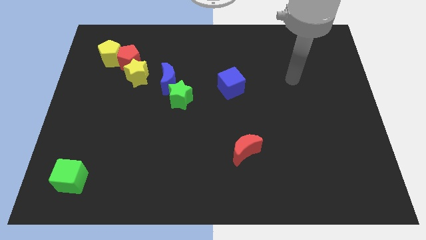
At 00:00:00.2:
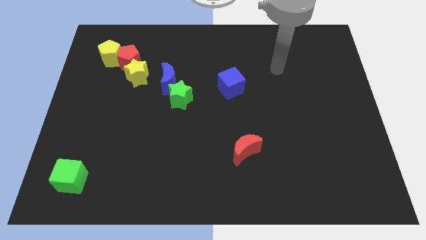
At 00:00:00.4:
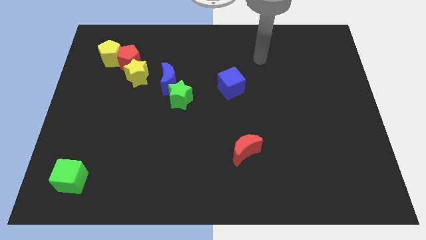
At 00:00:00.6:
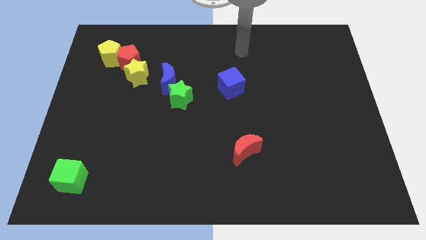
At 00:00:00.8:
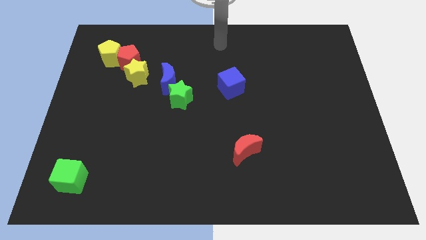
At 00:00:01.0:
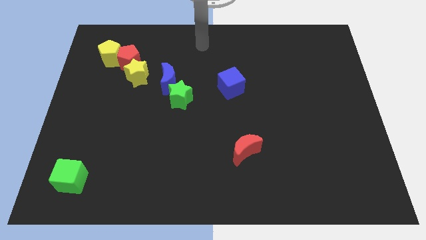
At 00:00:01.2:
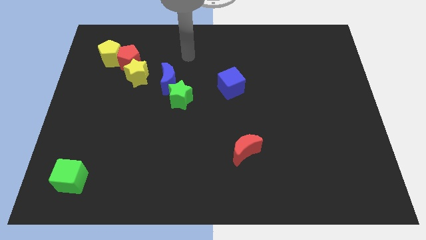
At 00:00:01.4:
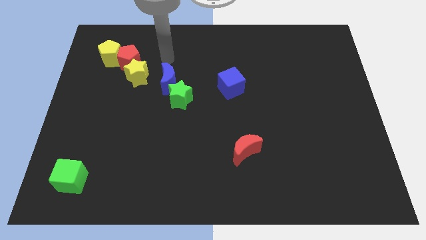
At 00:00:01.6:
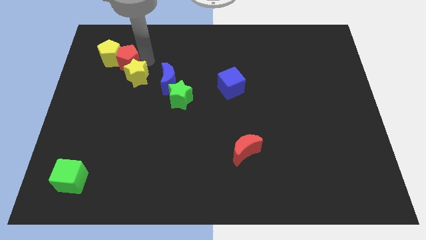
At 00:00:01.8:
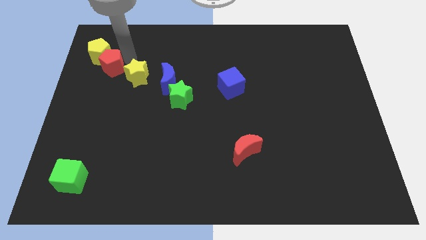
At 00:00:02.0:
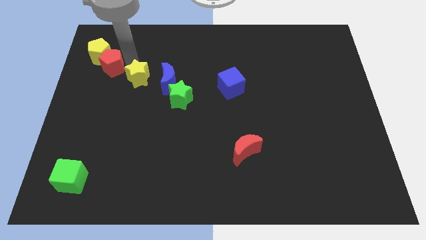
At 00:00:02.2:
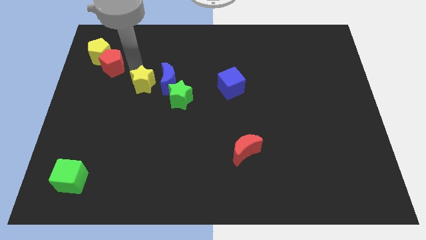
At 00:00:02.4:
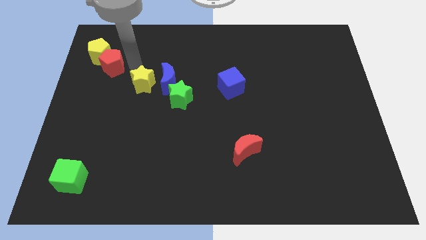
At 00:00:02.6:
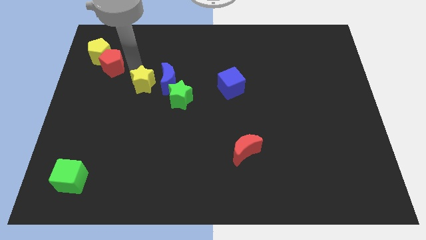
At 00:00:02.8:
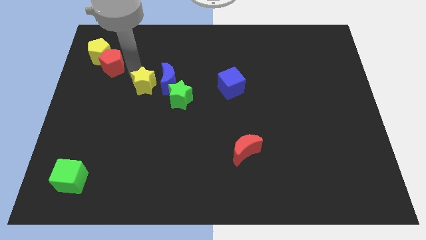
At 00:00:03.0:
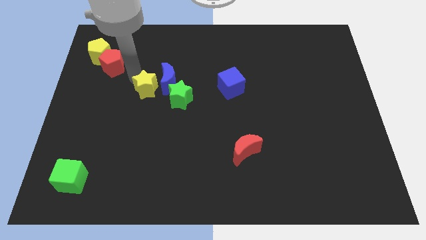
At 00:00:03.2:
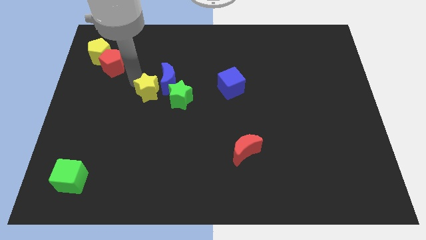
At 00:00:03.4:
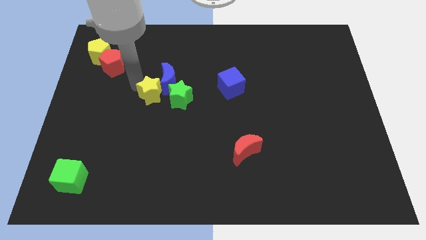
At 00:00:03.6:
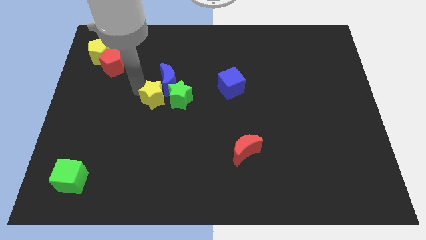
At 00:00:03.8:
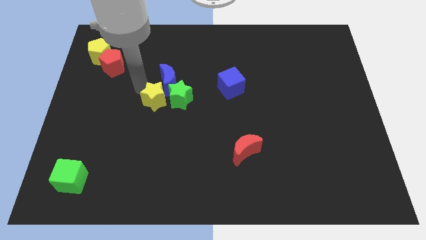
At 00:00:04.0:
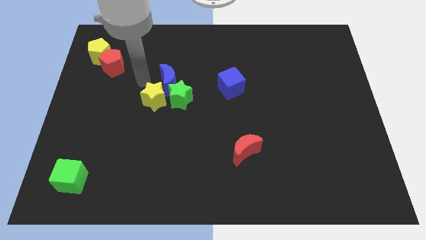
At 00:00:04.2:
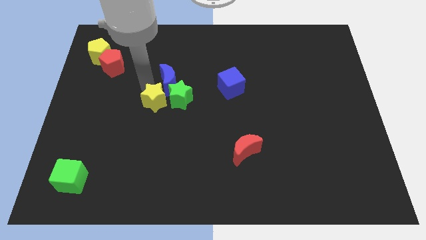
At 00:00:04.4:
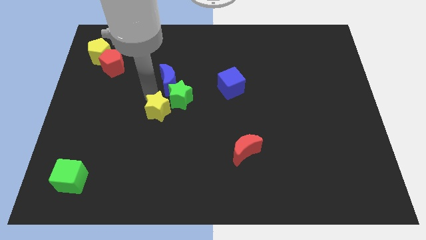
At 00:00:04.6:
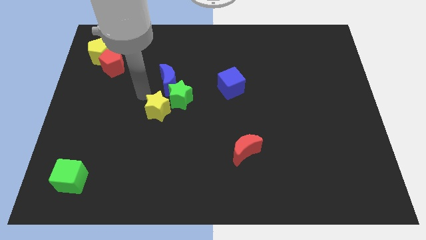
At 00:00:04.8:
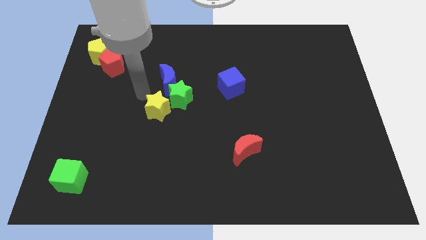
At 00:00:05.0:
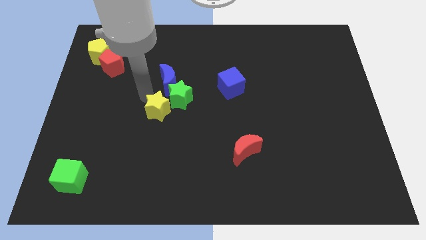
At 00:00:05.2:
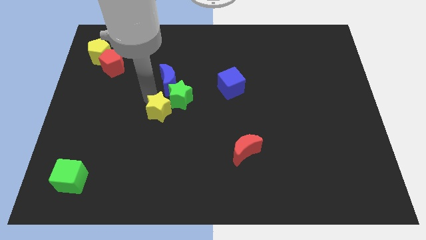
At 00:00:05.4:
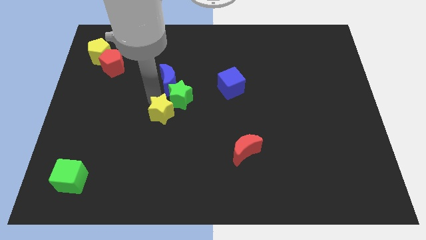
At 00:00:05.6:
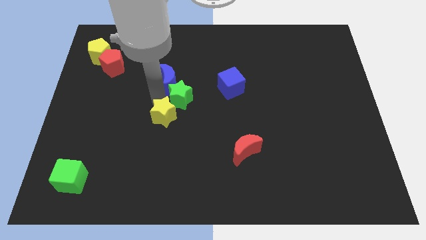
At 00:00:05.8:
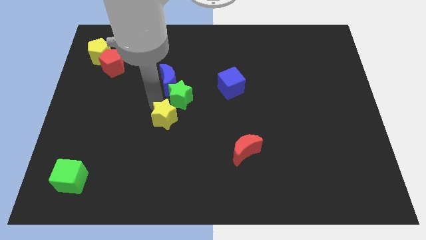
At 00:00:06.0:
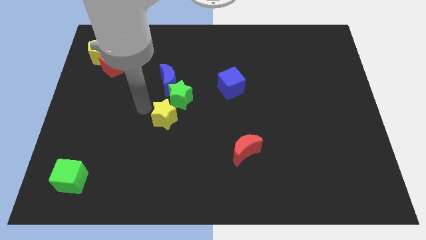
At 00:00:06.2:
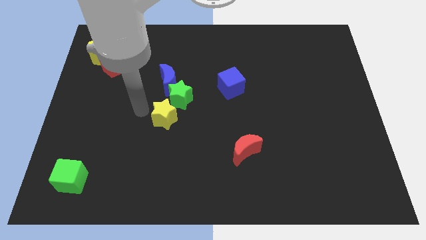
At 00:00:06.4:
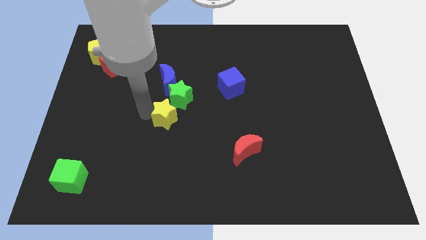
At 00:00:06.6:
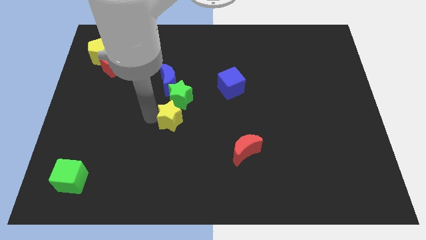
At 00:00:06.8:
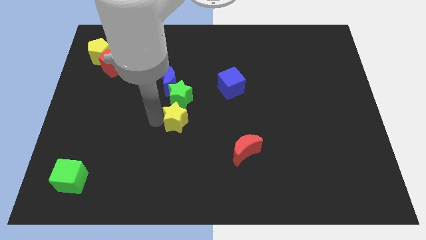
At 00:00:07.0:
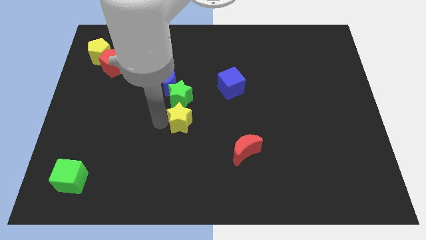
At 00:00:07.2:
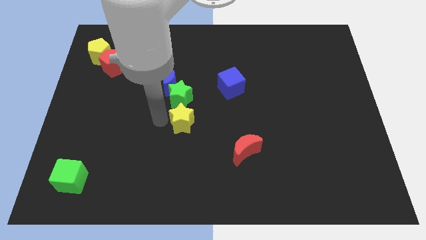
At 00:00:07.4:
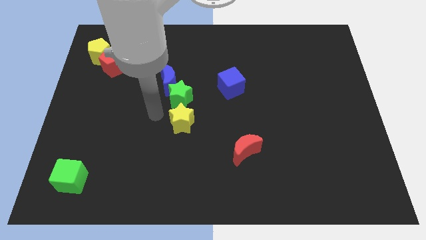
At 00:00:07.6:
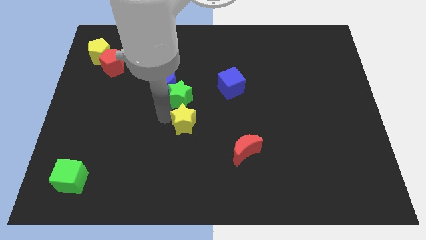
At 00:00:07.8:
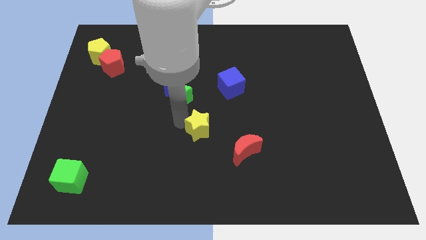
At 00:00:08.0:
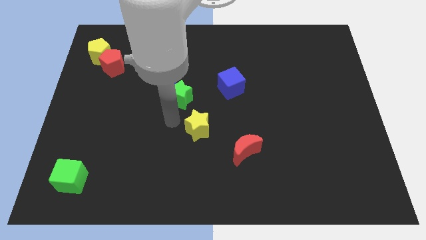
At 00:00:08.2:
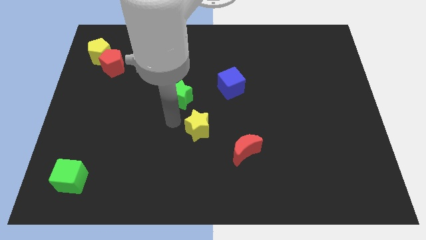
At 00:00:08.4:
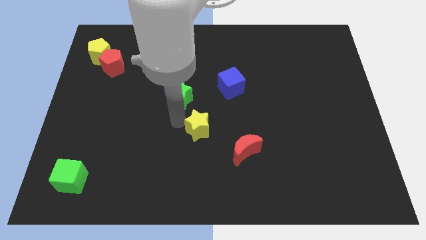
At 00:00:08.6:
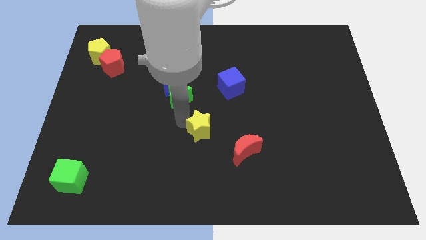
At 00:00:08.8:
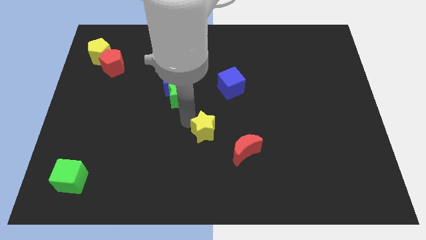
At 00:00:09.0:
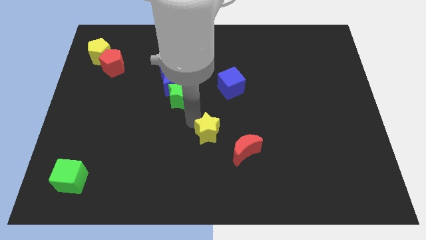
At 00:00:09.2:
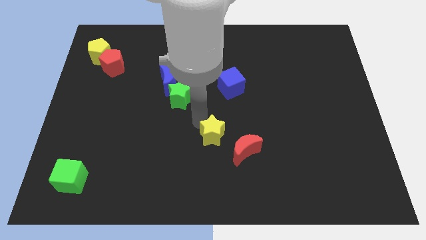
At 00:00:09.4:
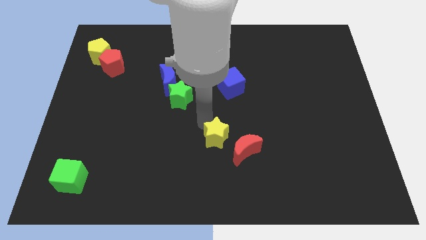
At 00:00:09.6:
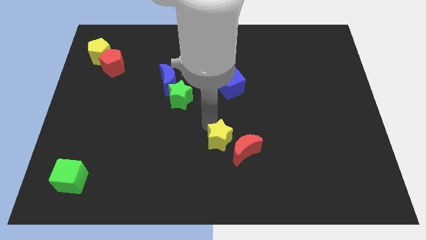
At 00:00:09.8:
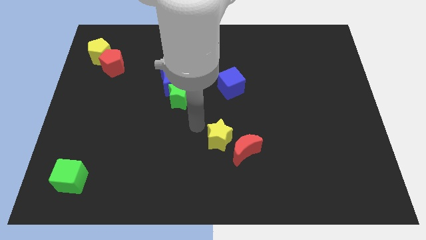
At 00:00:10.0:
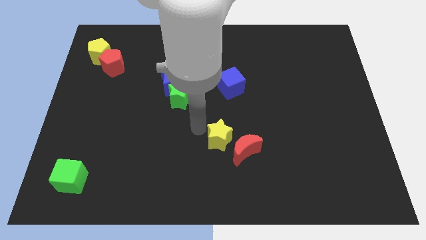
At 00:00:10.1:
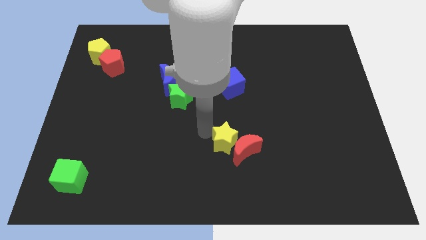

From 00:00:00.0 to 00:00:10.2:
slide the yellow star close to the red moon

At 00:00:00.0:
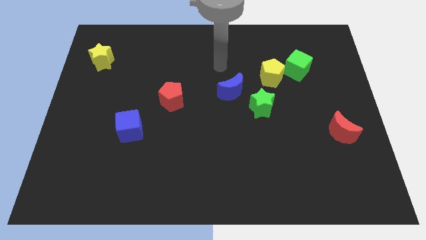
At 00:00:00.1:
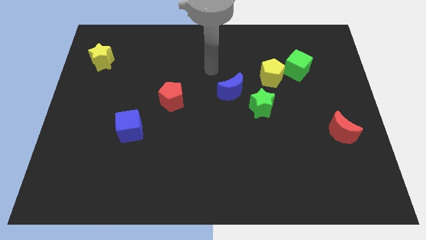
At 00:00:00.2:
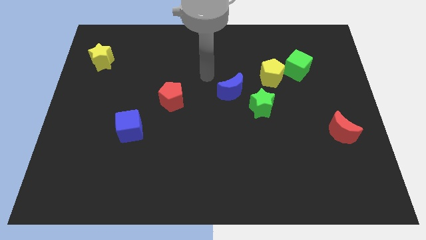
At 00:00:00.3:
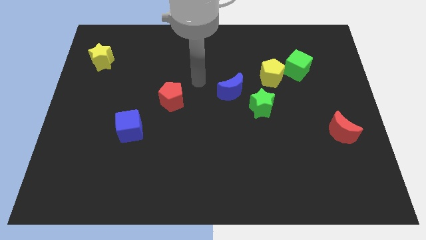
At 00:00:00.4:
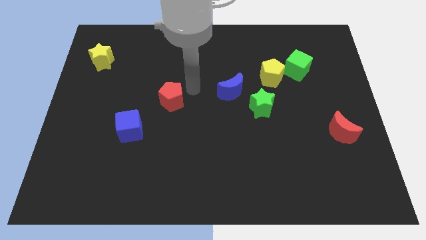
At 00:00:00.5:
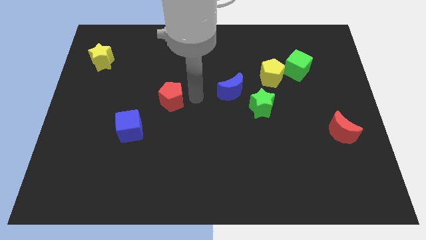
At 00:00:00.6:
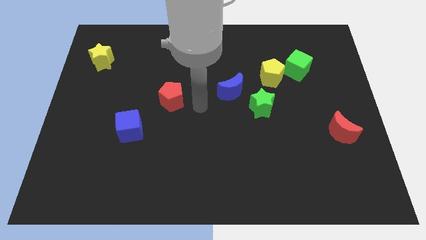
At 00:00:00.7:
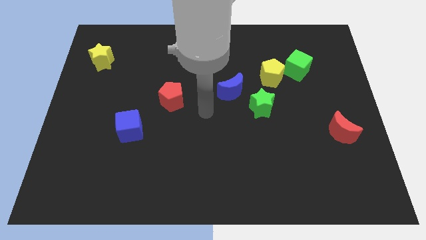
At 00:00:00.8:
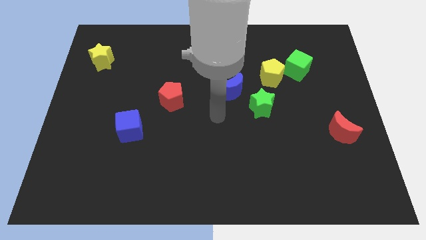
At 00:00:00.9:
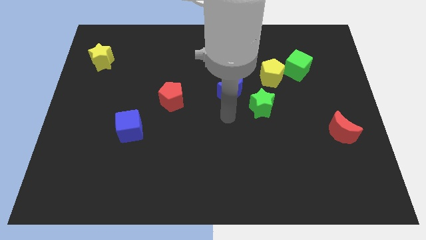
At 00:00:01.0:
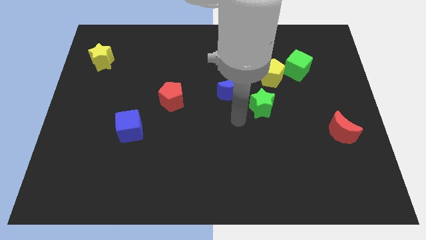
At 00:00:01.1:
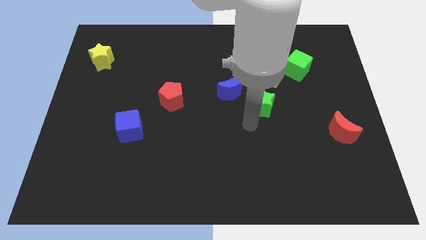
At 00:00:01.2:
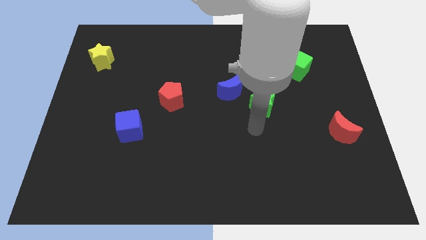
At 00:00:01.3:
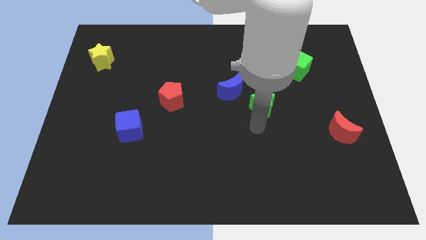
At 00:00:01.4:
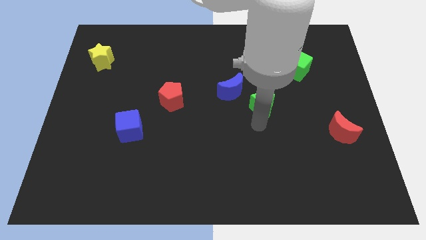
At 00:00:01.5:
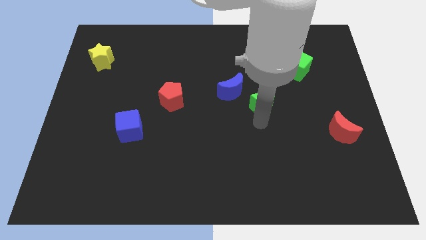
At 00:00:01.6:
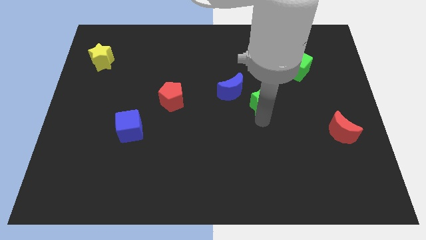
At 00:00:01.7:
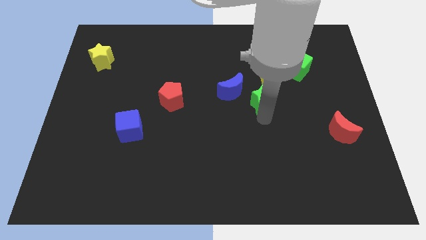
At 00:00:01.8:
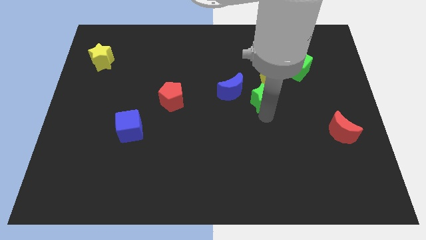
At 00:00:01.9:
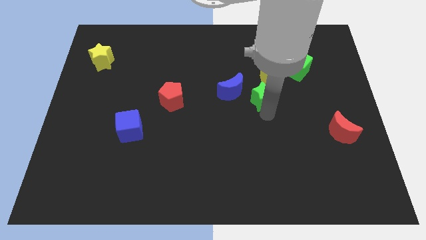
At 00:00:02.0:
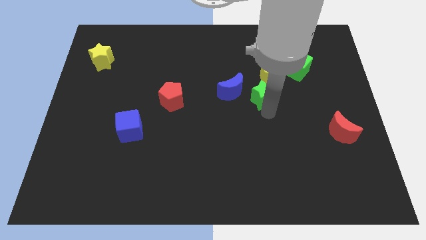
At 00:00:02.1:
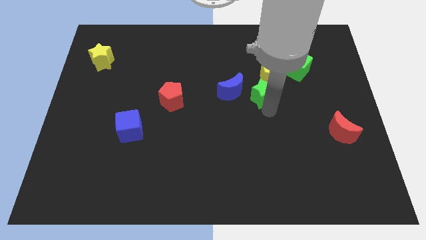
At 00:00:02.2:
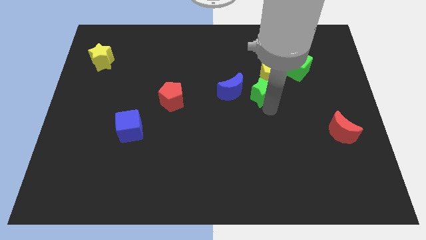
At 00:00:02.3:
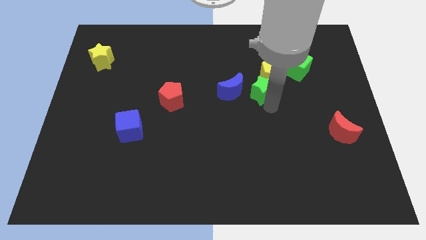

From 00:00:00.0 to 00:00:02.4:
slide the green star next to the yellow pentagon
